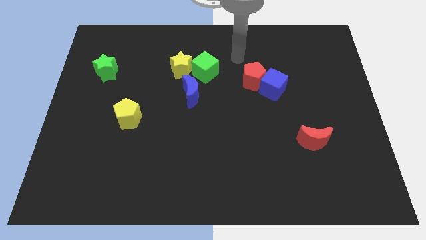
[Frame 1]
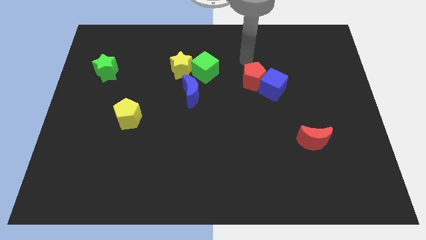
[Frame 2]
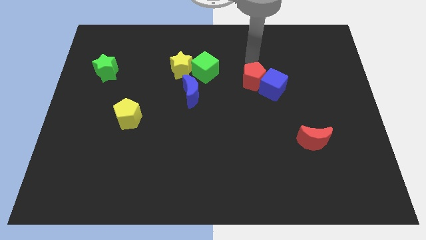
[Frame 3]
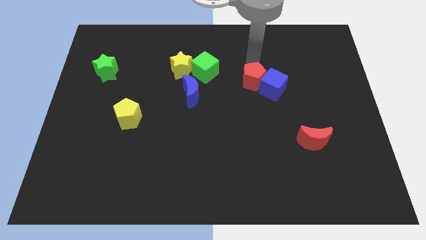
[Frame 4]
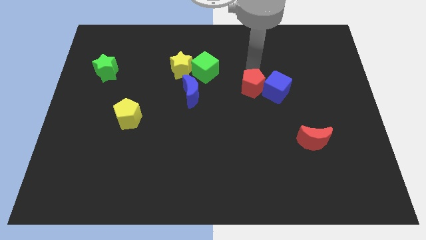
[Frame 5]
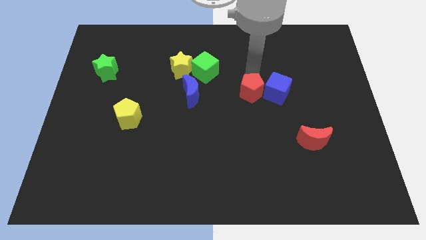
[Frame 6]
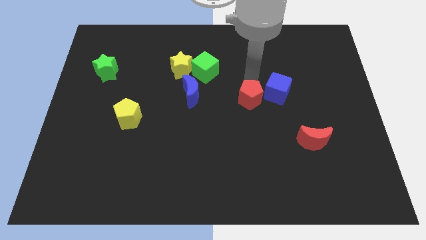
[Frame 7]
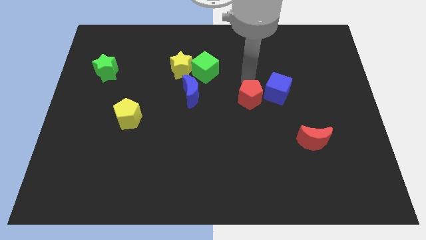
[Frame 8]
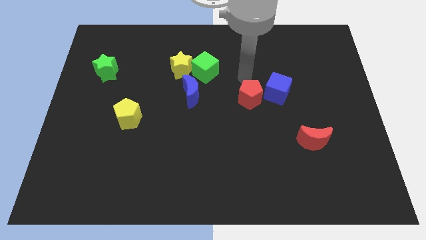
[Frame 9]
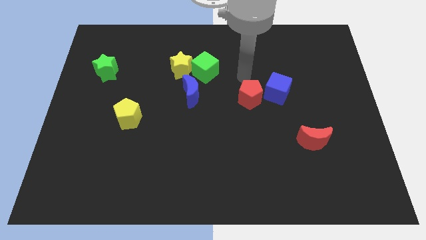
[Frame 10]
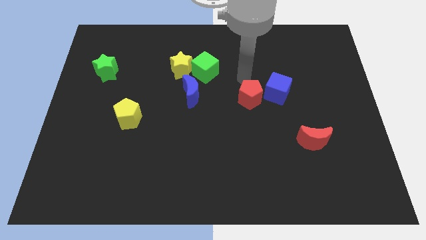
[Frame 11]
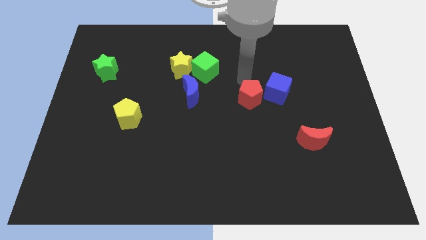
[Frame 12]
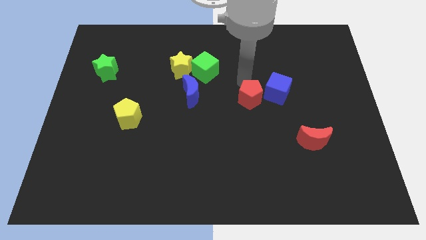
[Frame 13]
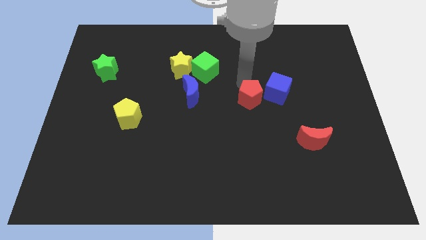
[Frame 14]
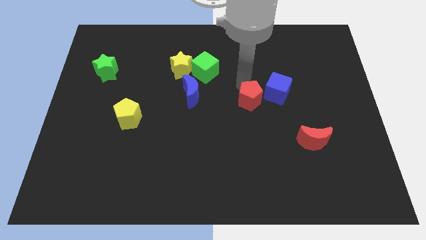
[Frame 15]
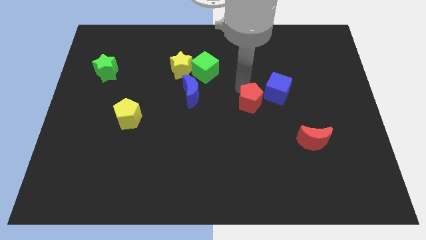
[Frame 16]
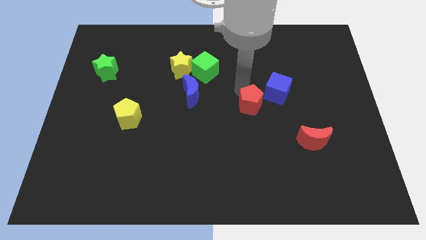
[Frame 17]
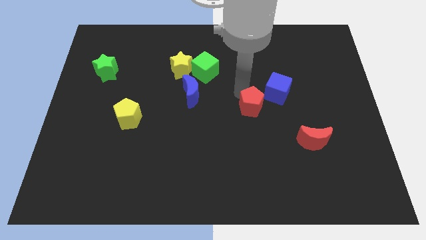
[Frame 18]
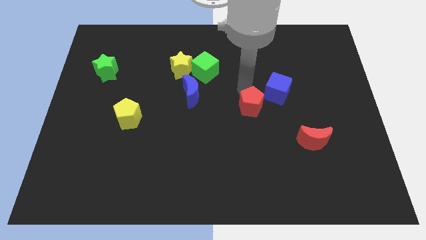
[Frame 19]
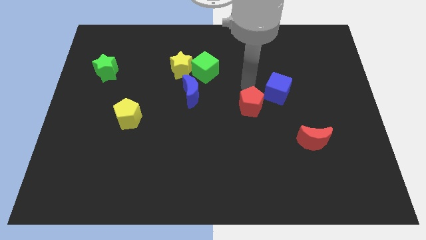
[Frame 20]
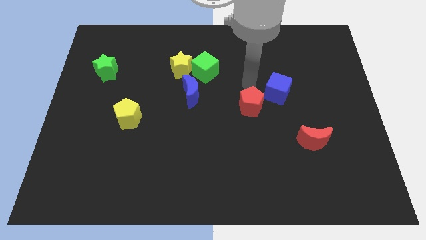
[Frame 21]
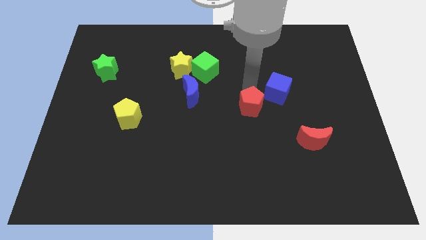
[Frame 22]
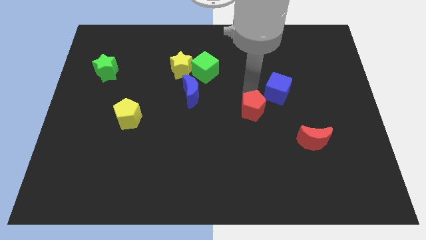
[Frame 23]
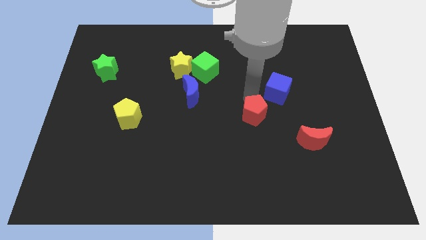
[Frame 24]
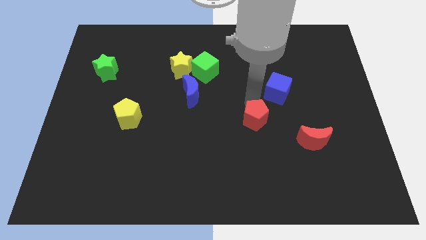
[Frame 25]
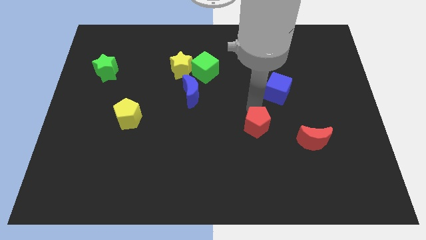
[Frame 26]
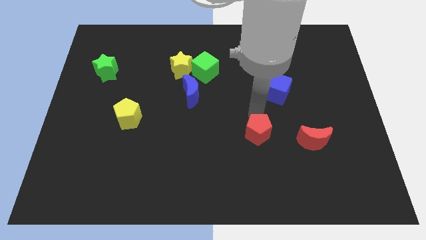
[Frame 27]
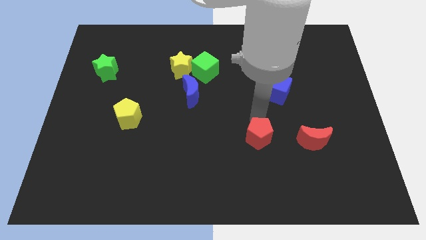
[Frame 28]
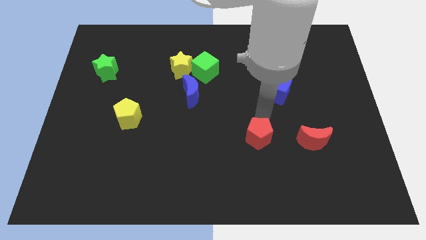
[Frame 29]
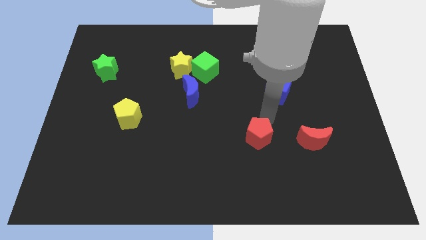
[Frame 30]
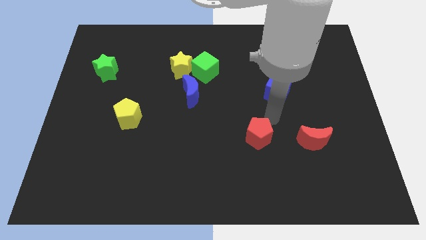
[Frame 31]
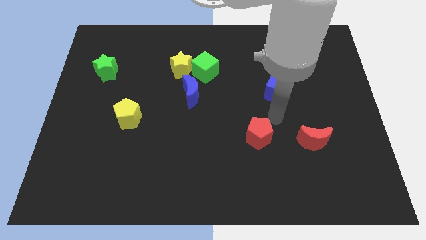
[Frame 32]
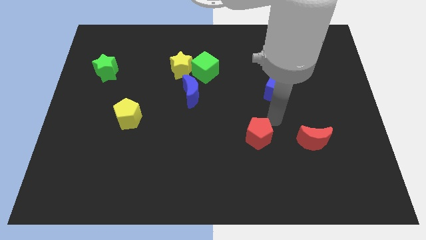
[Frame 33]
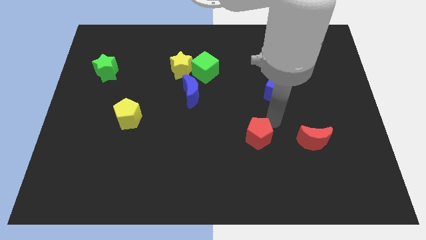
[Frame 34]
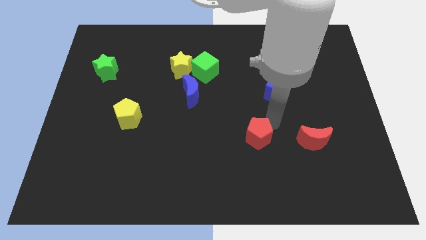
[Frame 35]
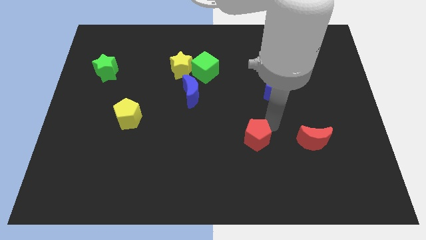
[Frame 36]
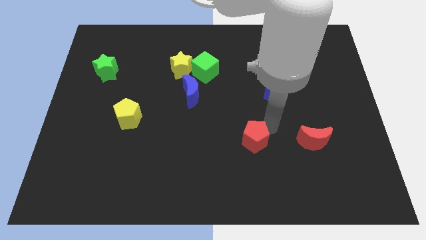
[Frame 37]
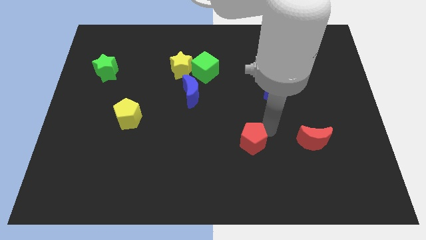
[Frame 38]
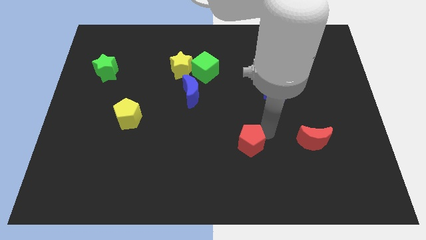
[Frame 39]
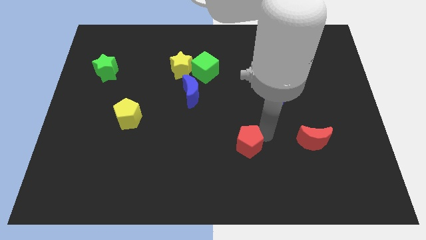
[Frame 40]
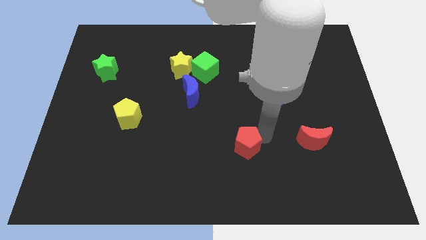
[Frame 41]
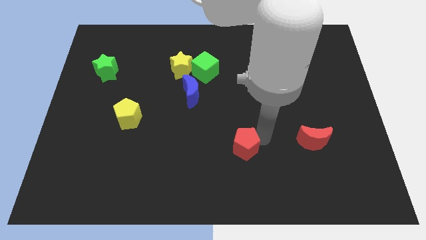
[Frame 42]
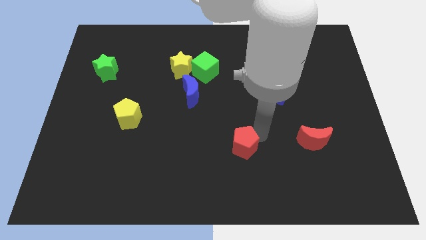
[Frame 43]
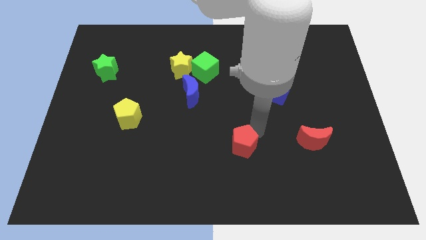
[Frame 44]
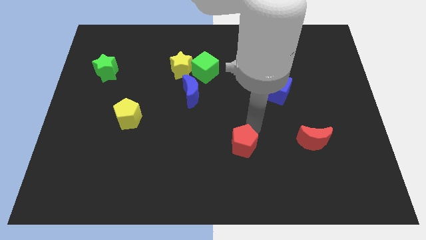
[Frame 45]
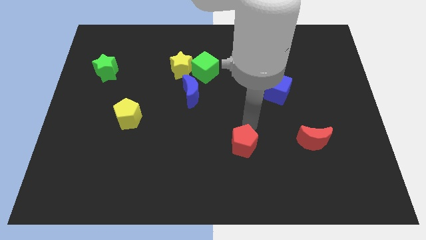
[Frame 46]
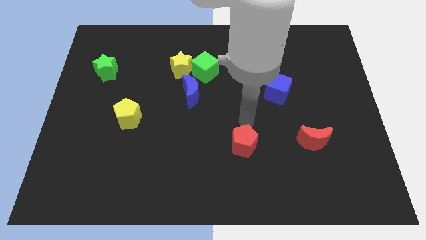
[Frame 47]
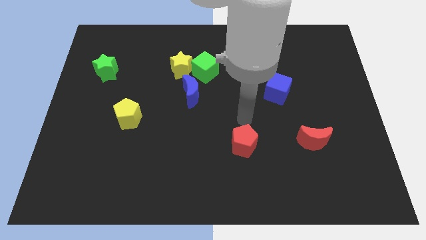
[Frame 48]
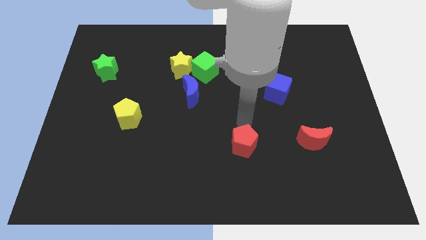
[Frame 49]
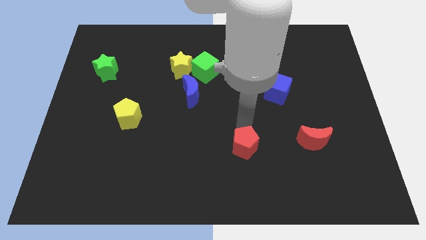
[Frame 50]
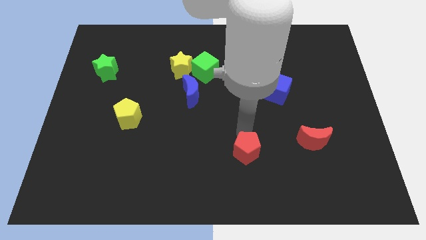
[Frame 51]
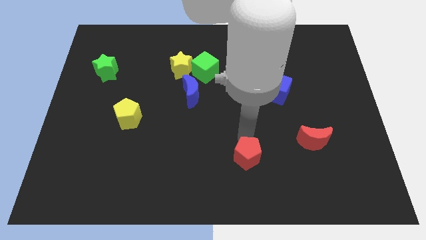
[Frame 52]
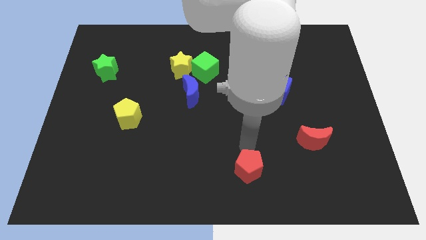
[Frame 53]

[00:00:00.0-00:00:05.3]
push the red pentagon to the bottom side
